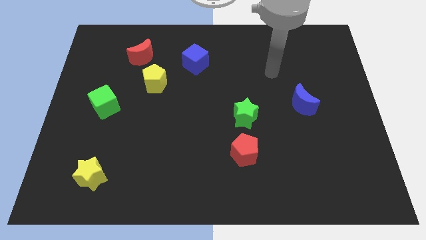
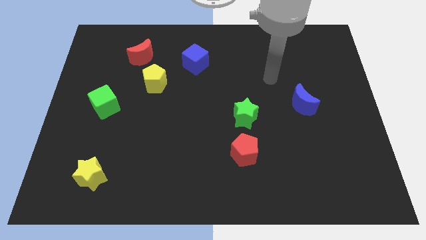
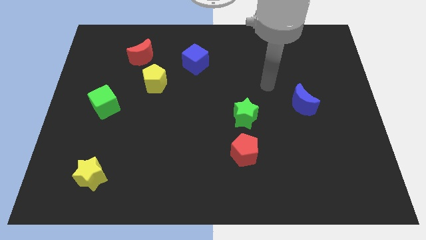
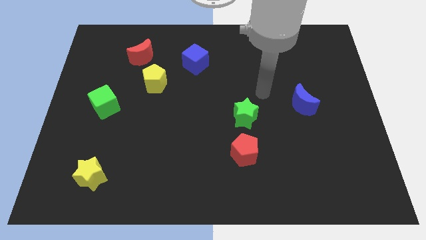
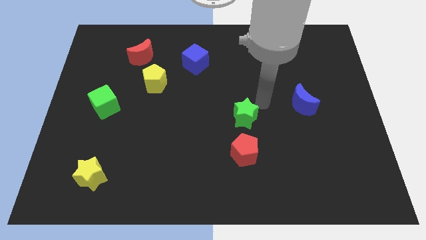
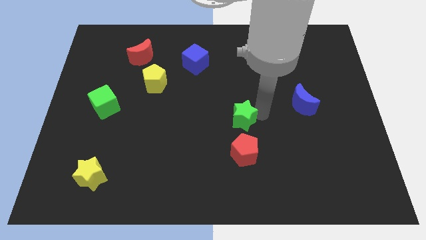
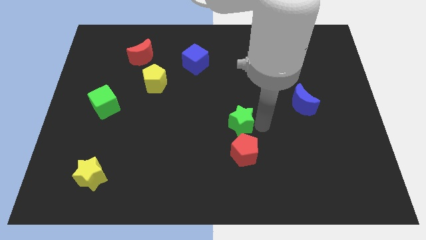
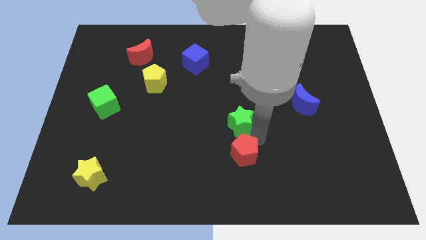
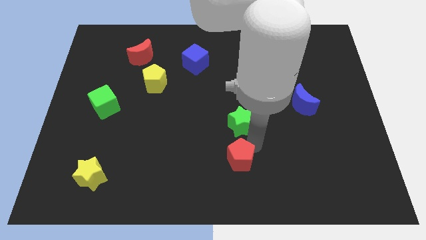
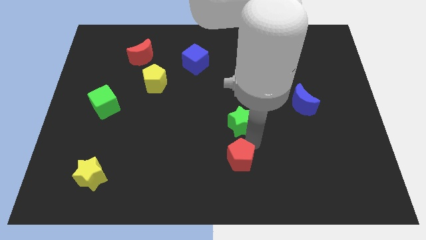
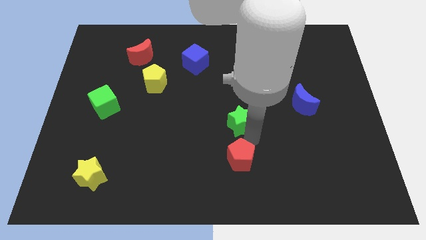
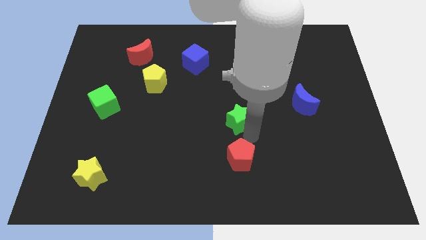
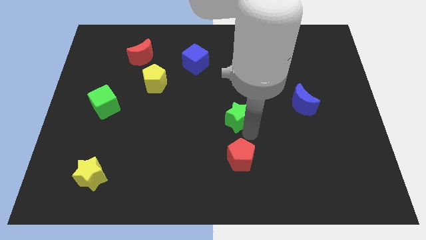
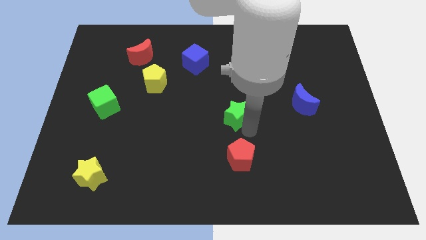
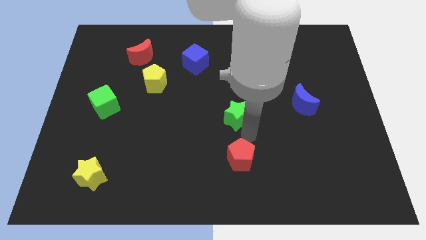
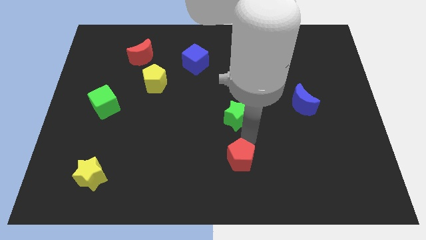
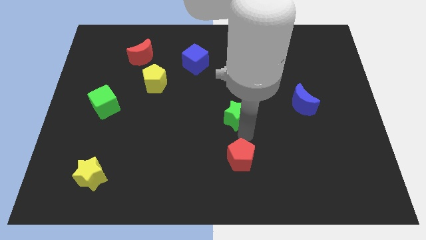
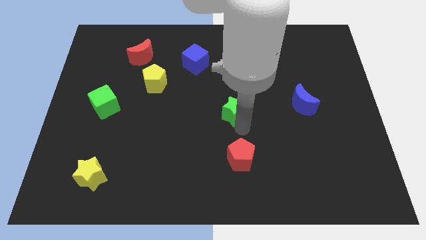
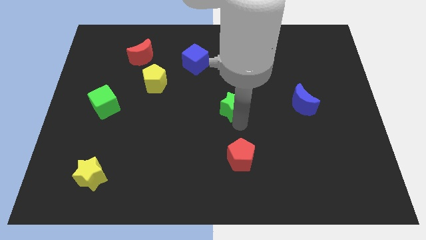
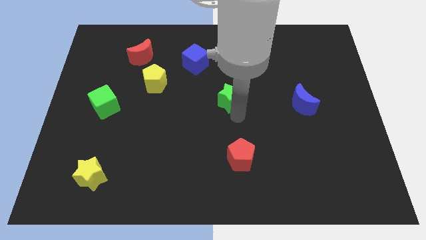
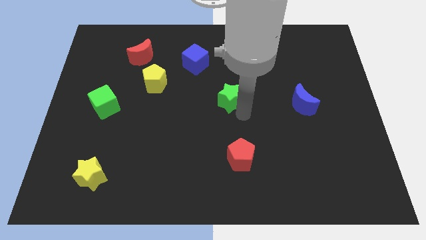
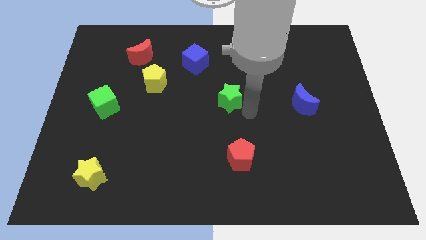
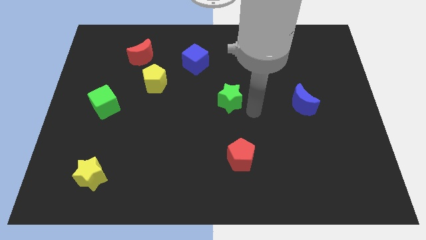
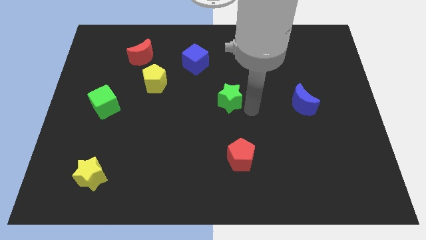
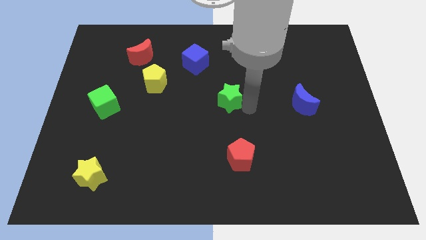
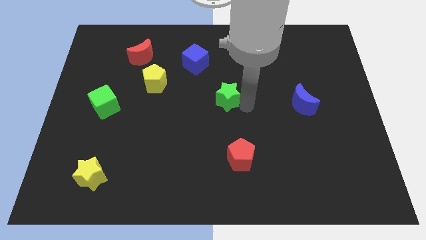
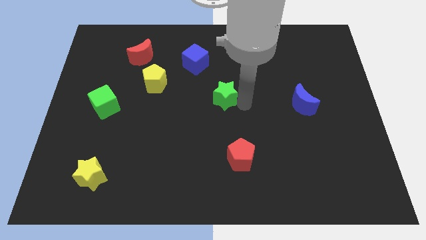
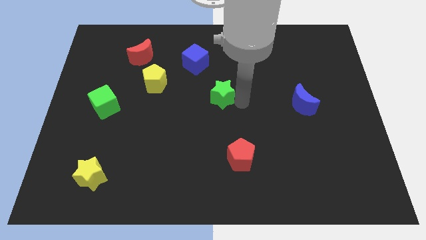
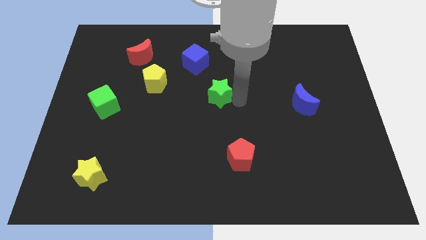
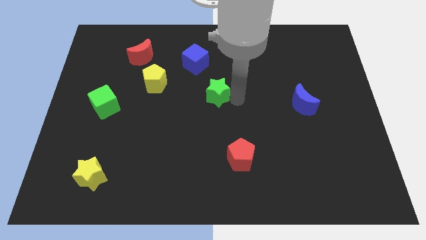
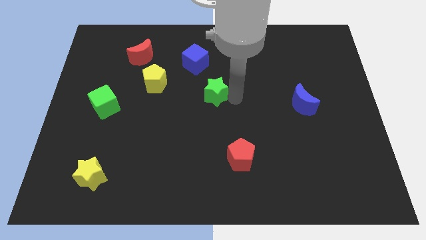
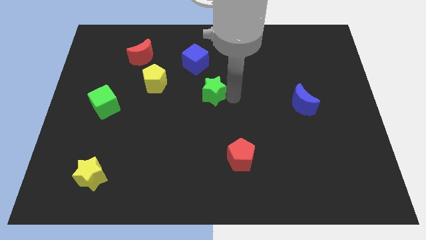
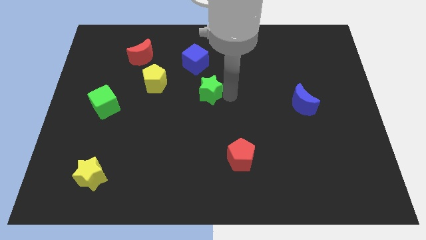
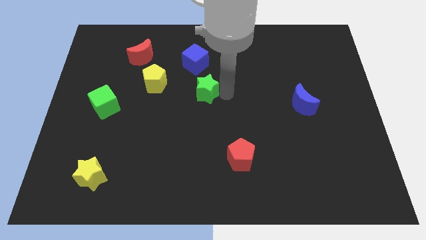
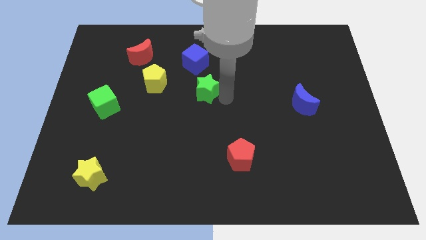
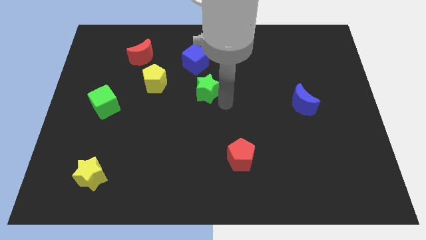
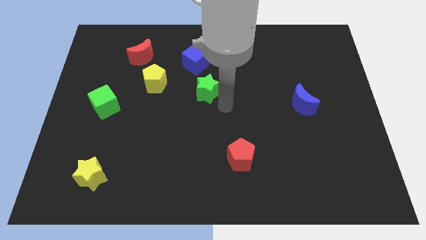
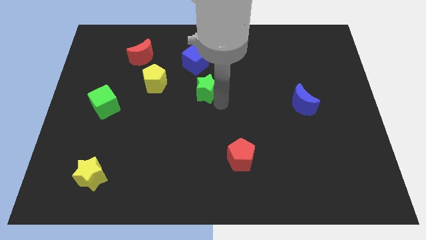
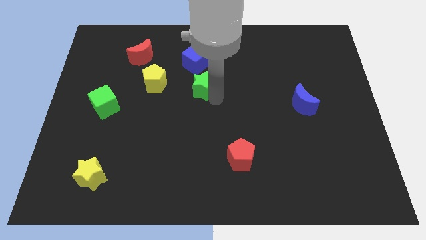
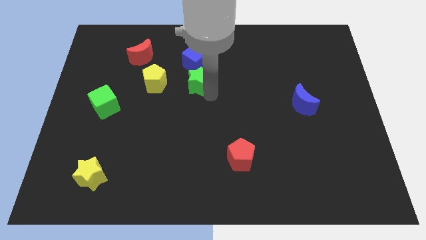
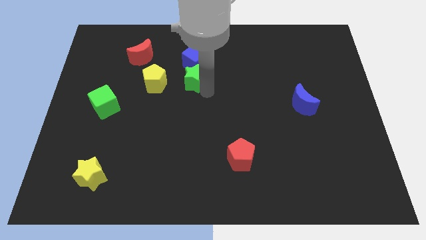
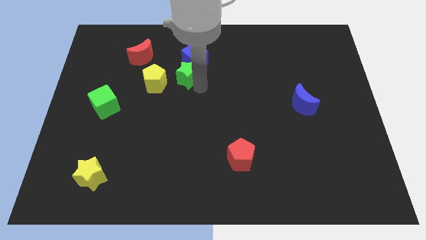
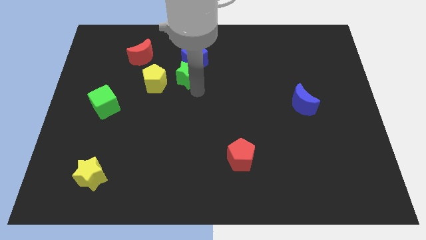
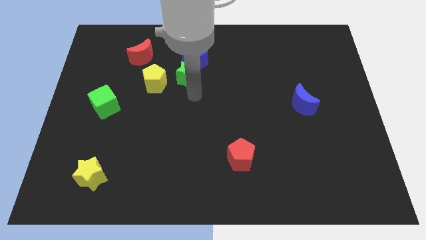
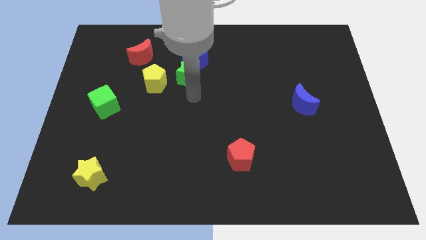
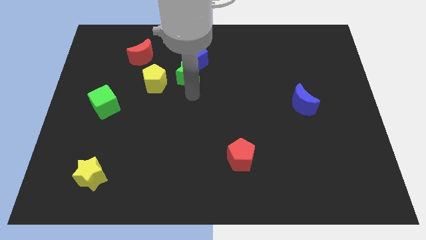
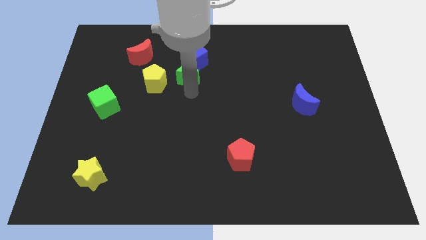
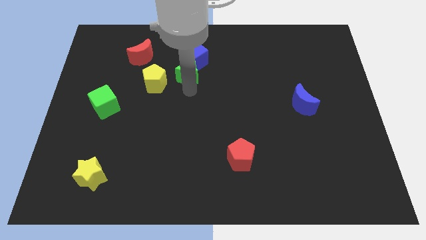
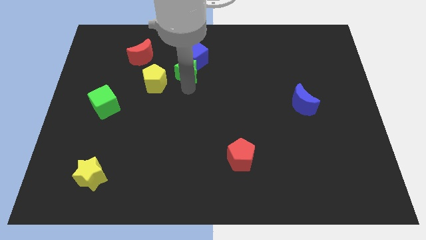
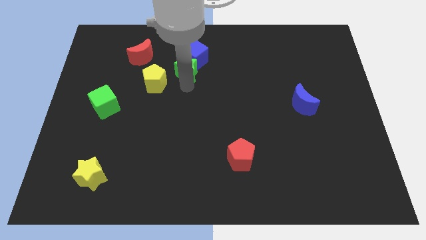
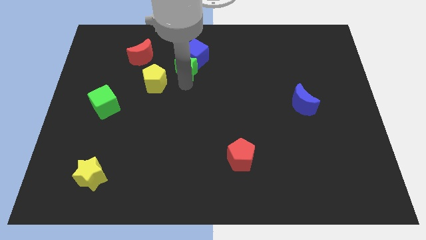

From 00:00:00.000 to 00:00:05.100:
push the green star to the right side of the red moon

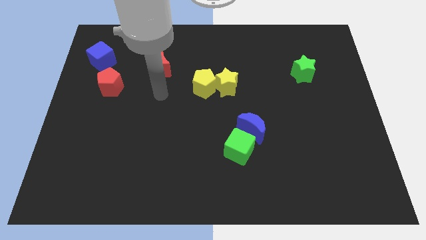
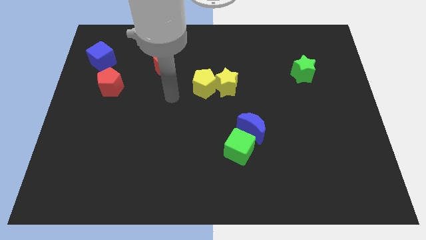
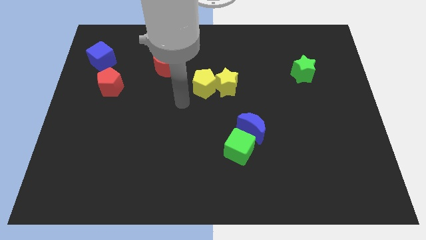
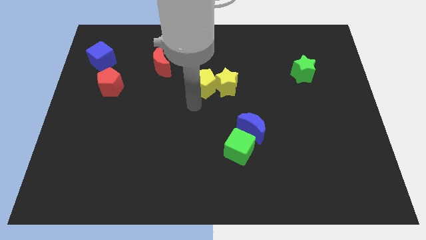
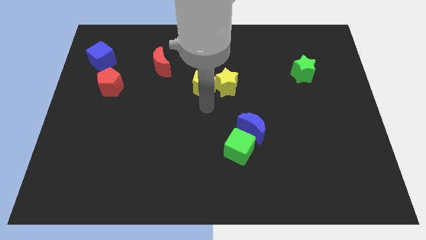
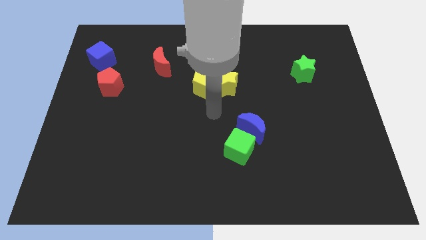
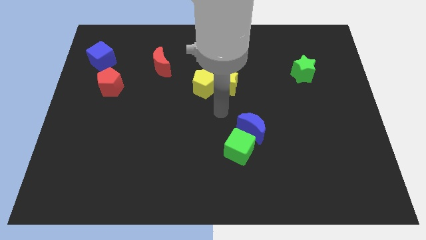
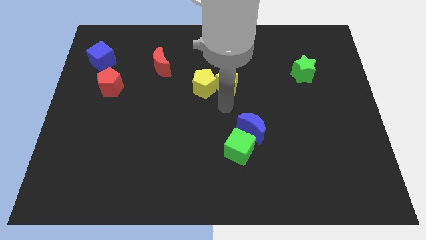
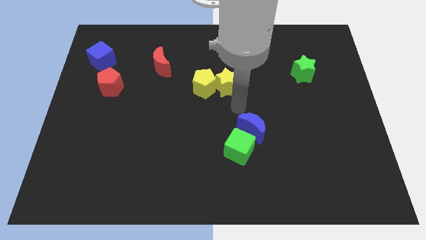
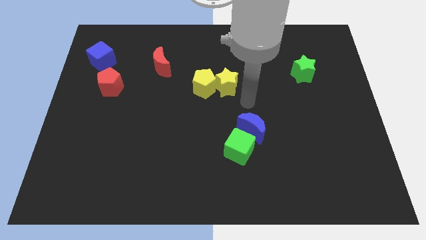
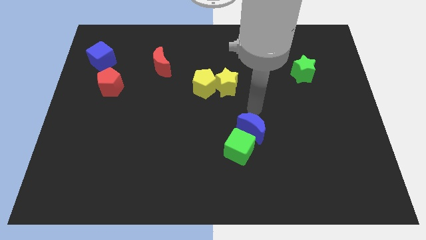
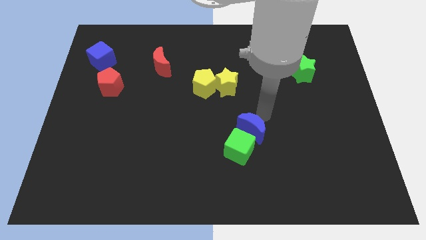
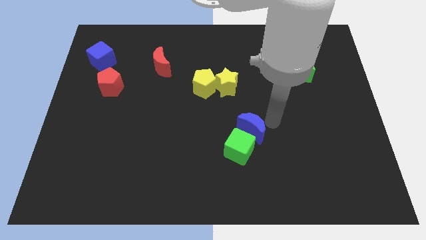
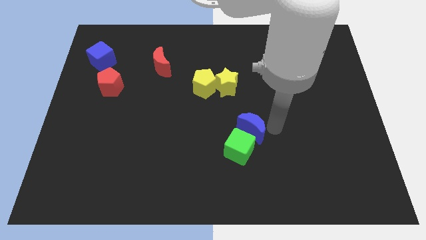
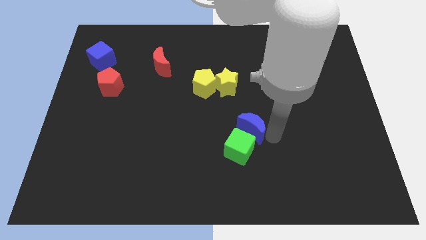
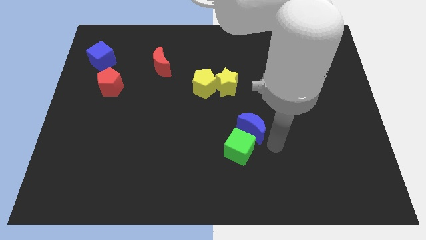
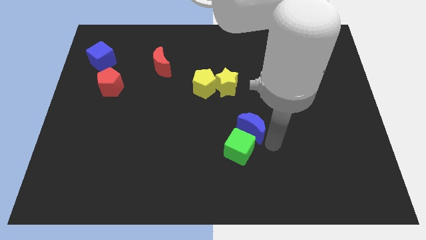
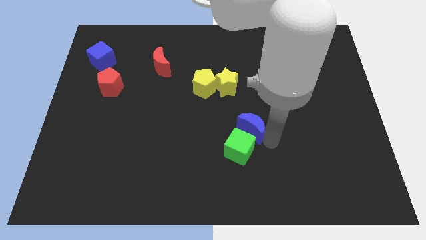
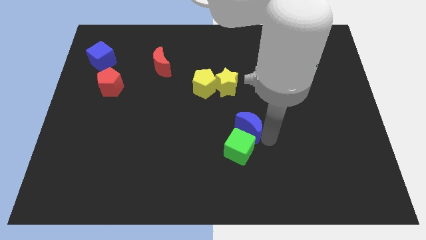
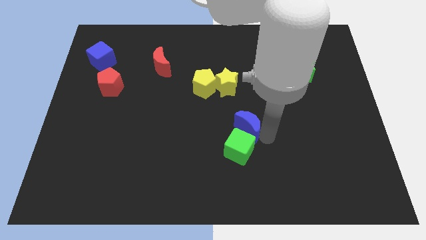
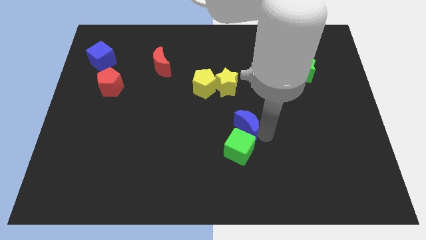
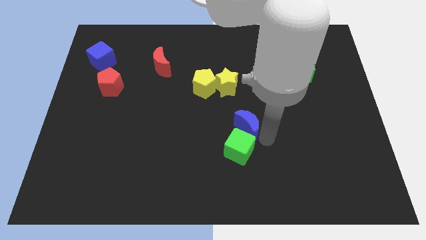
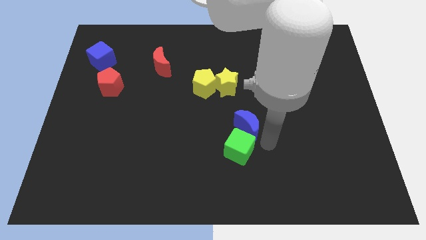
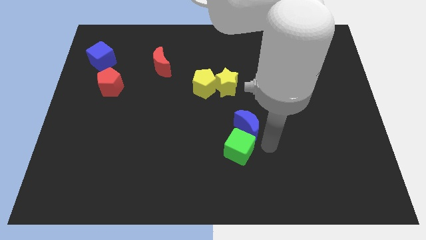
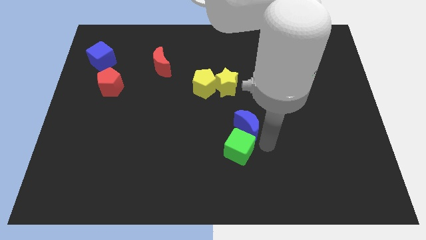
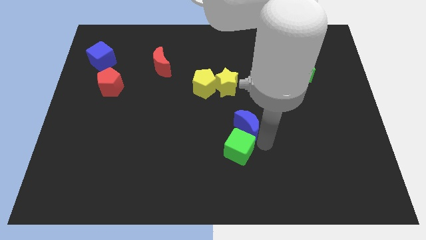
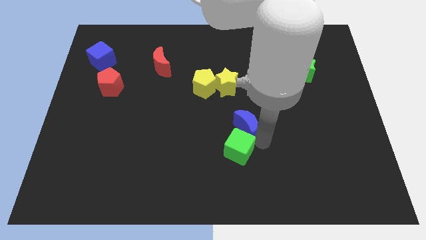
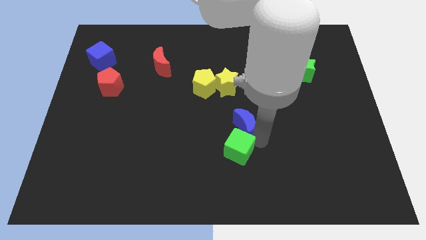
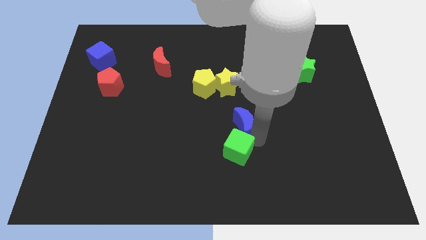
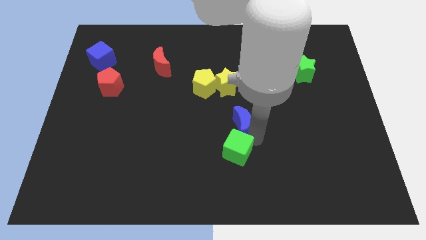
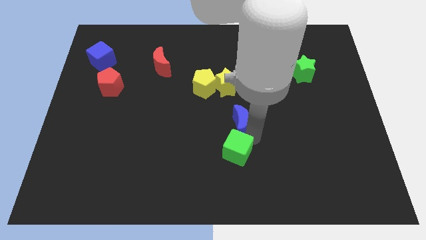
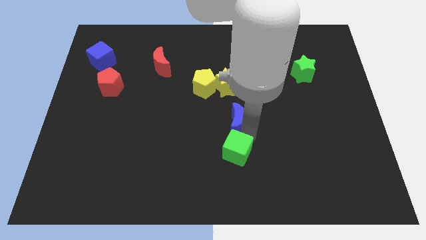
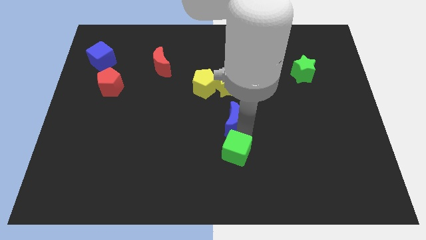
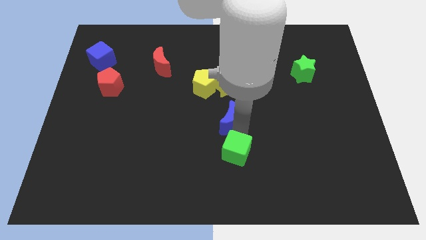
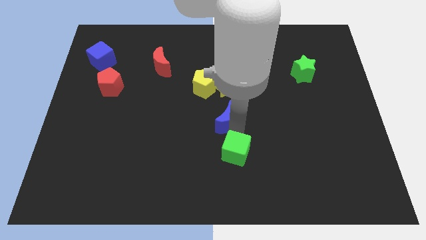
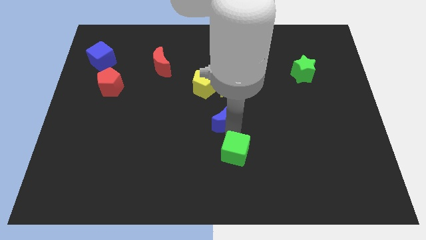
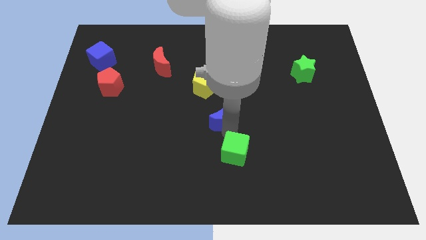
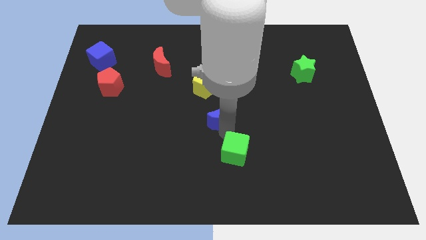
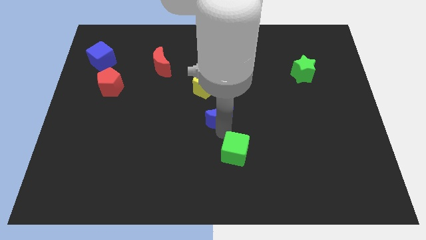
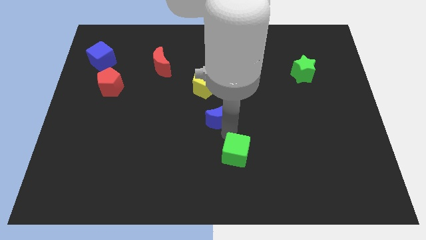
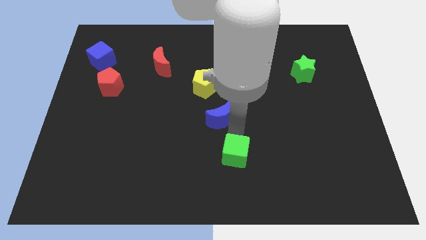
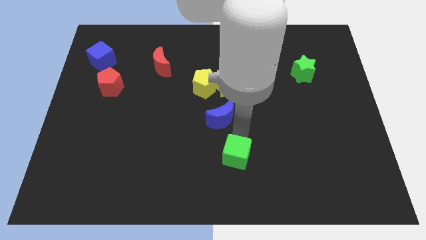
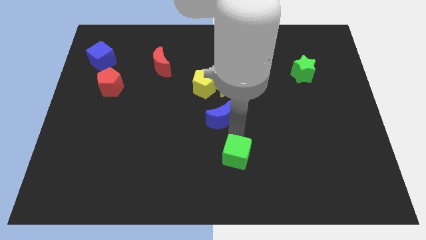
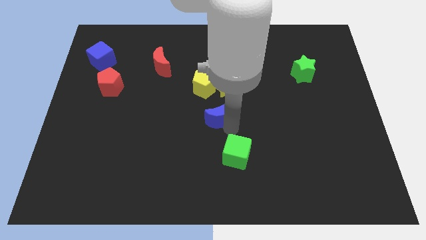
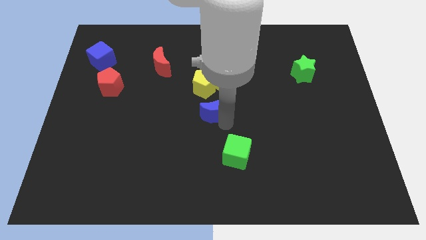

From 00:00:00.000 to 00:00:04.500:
put the blue moon to the bottom left of the yellow star
